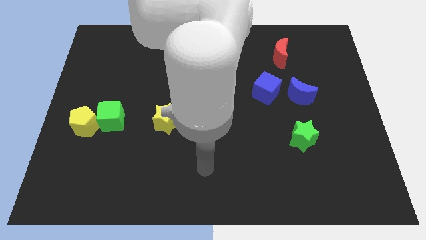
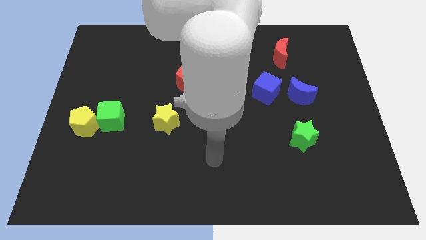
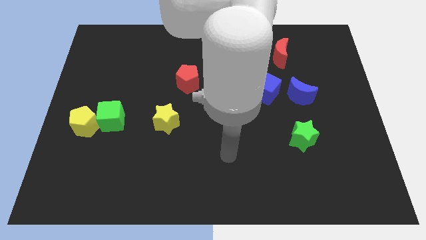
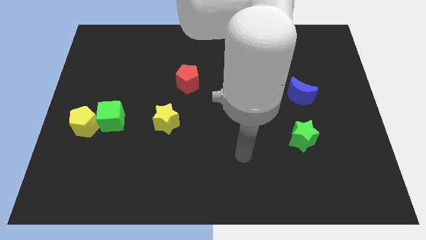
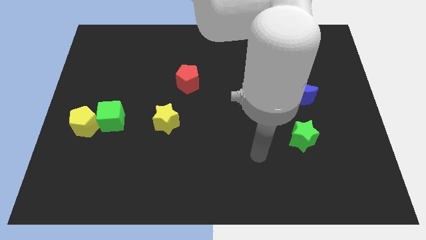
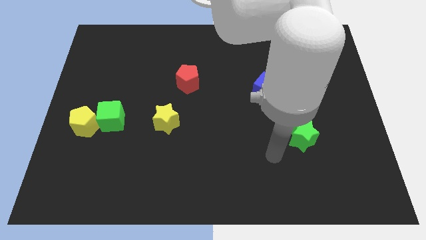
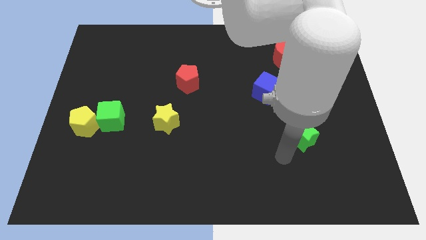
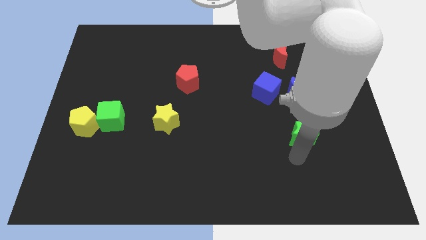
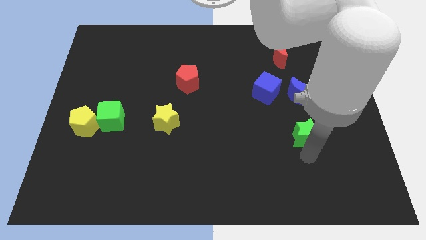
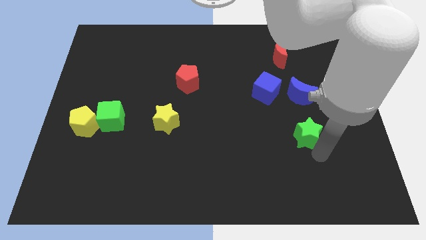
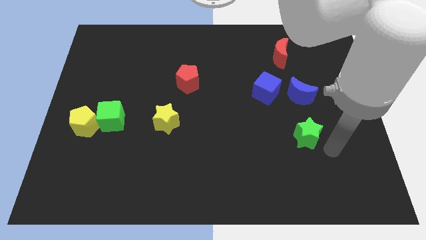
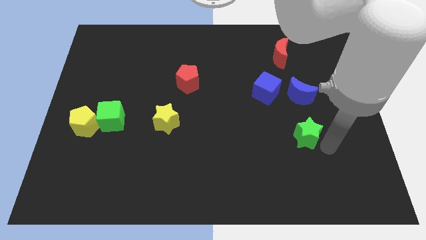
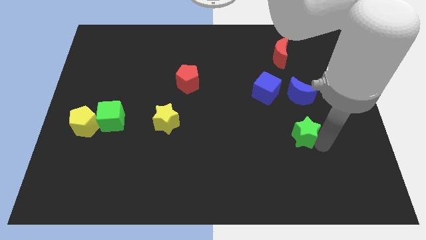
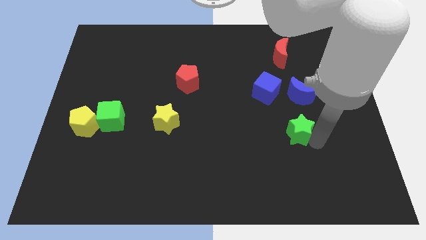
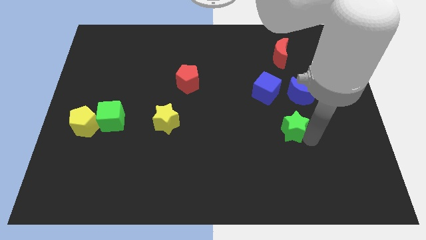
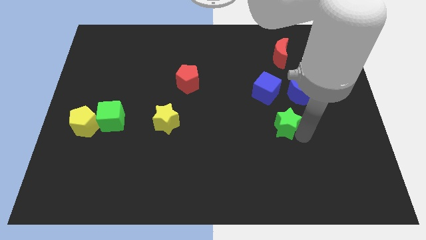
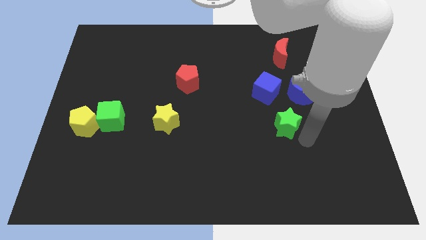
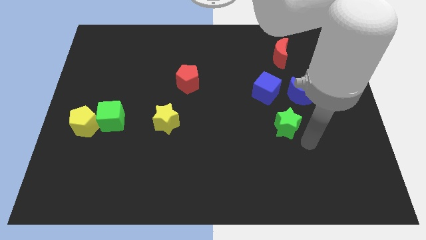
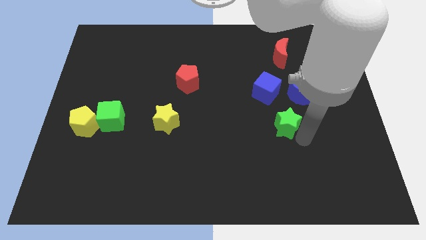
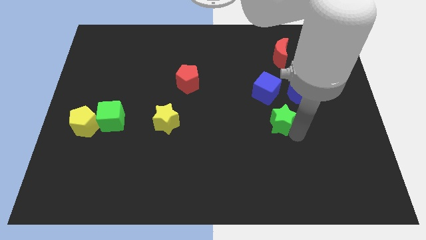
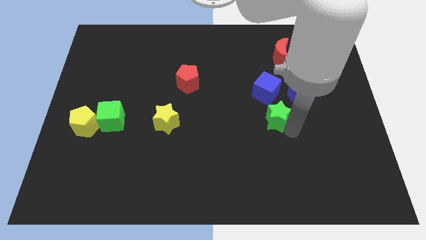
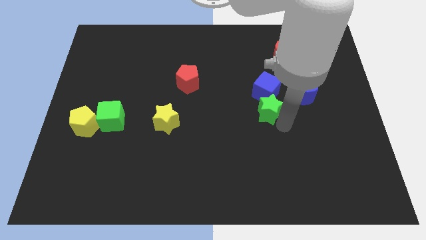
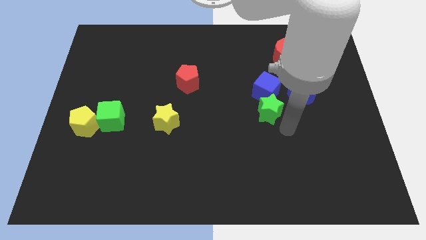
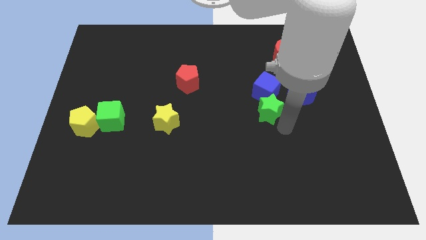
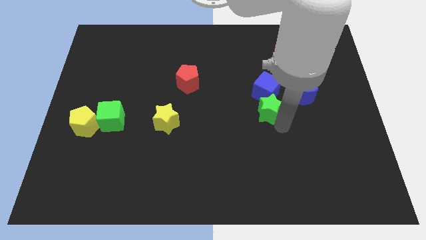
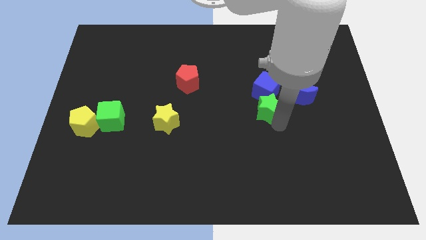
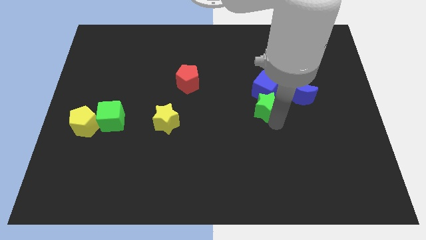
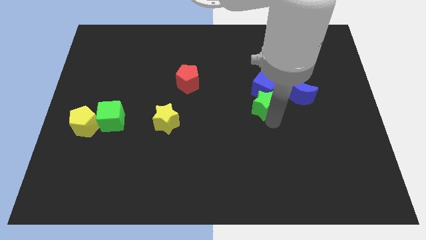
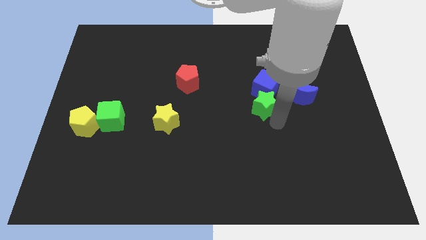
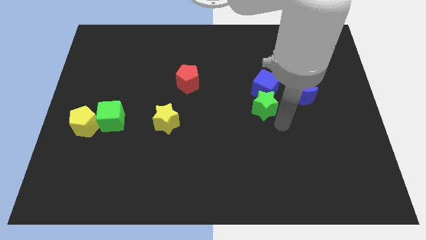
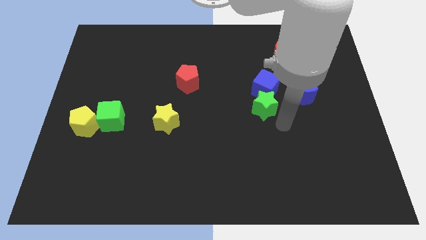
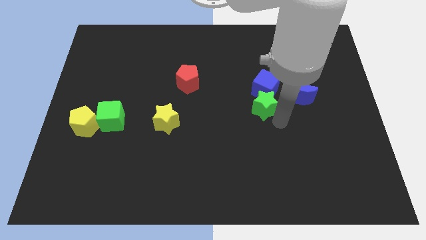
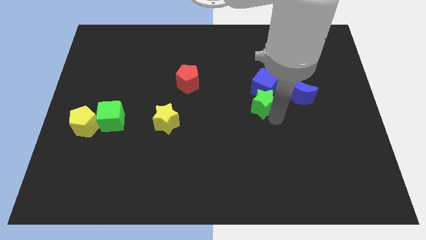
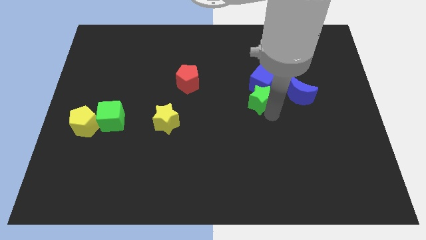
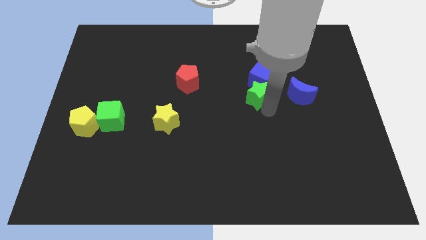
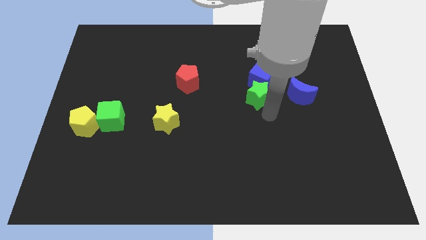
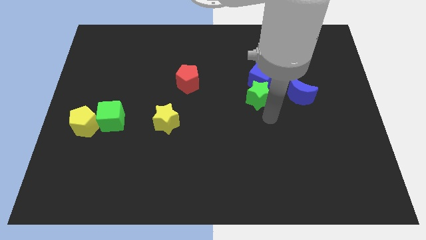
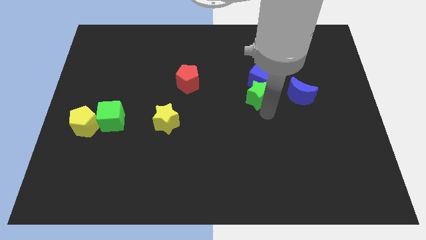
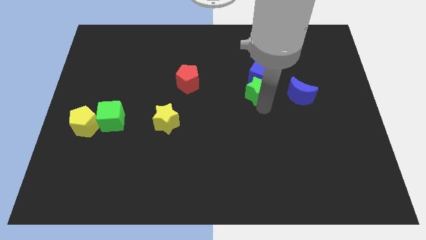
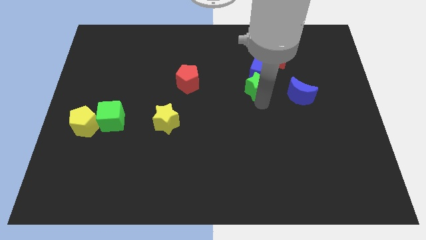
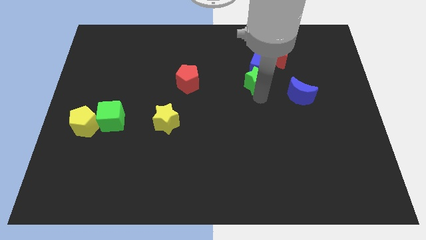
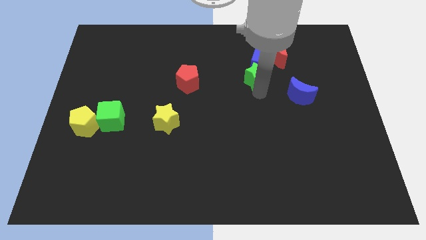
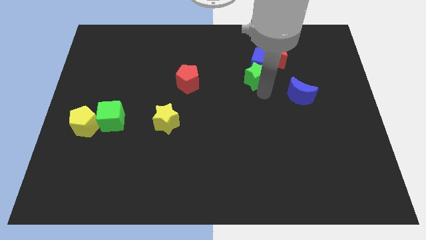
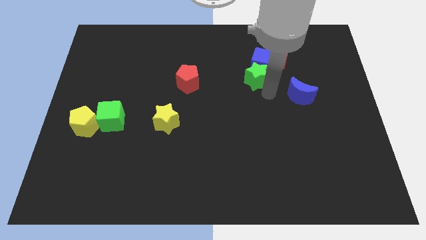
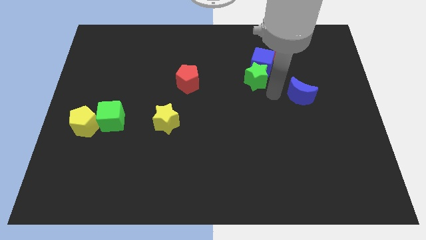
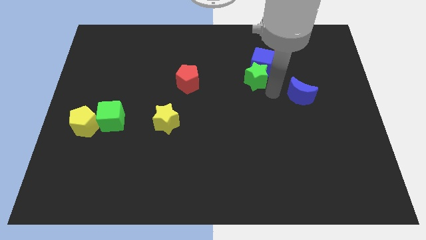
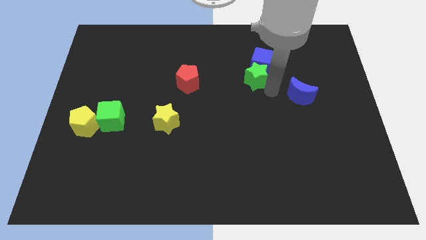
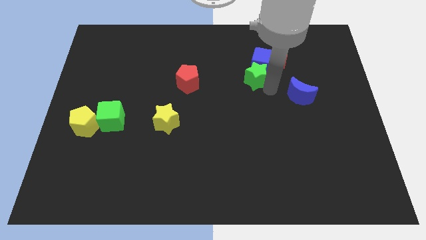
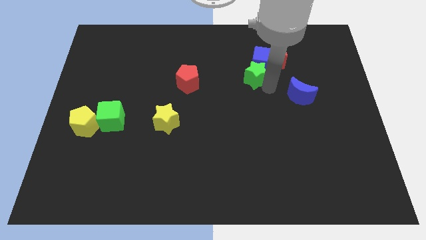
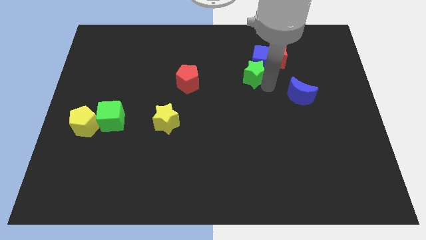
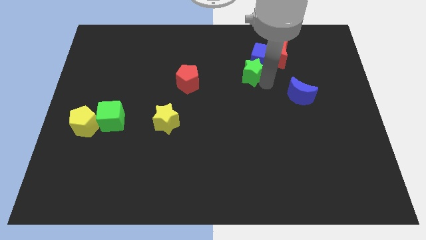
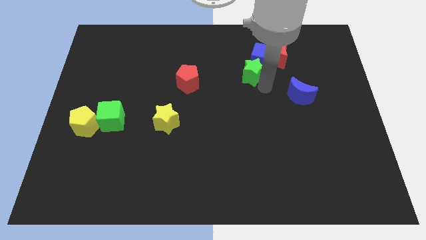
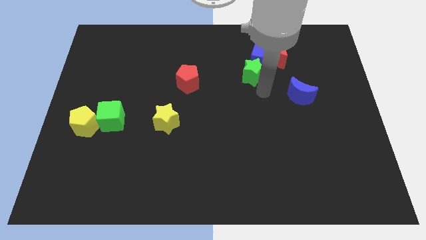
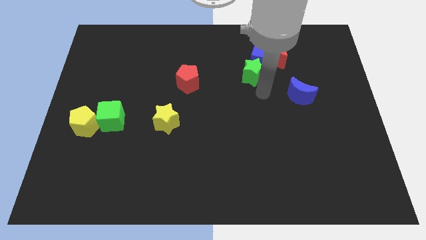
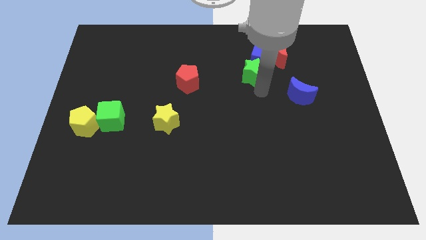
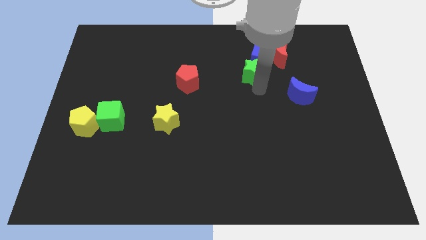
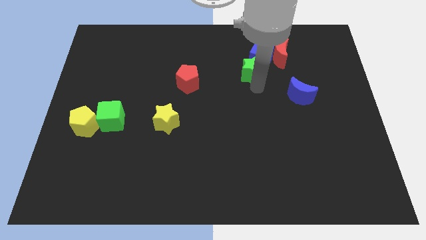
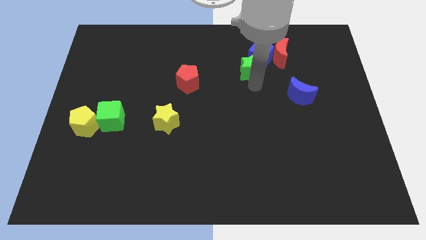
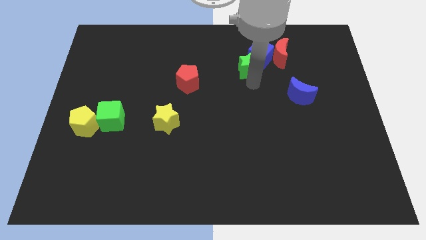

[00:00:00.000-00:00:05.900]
put the green star just left of the red moon

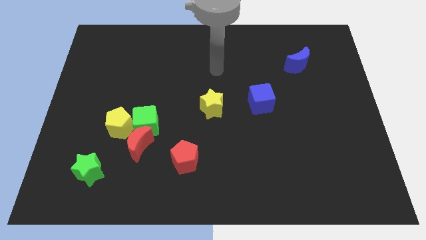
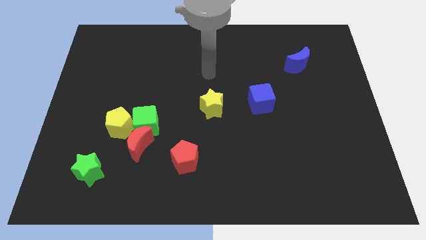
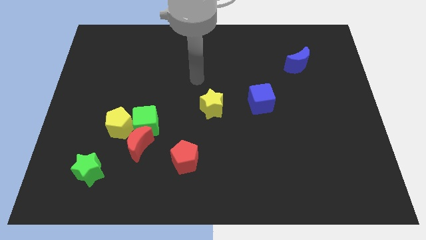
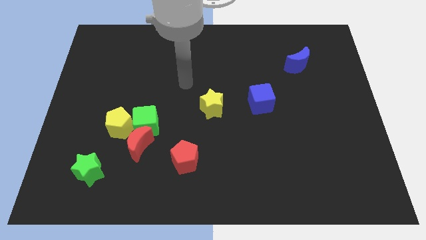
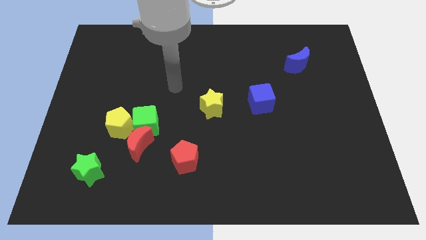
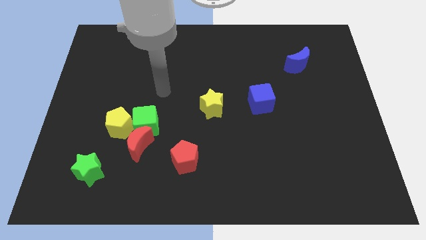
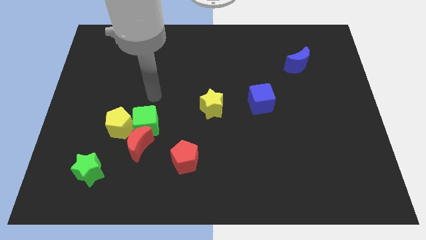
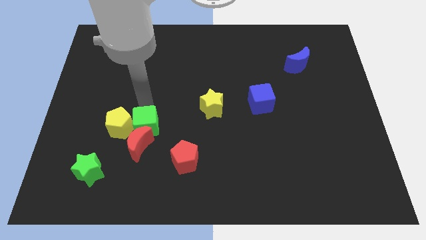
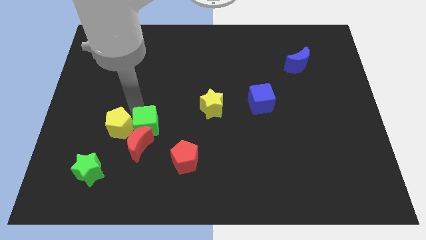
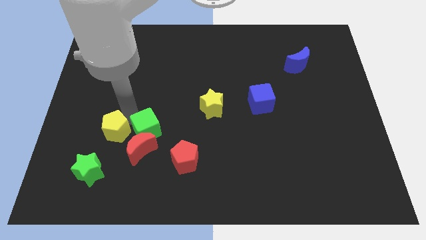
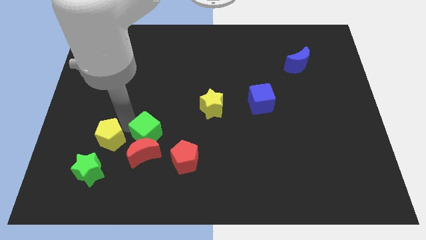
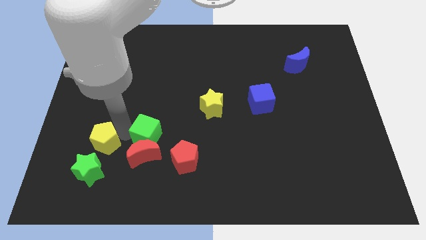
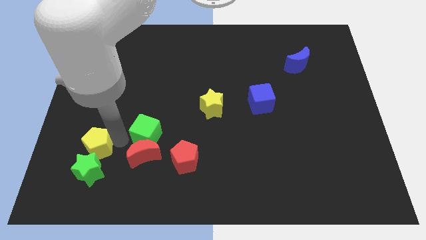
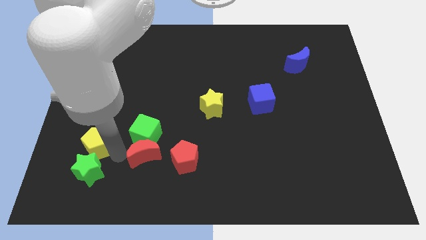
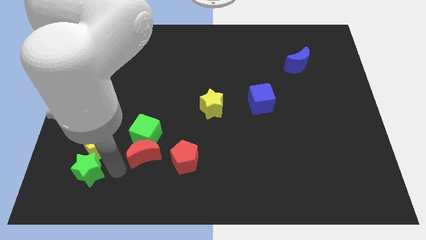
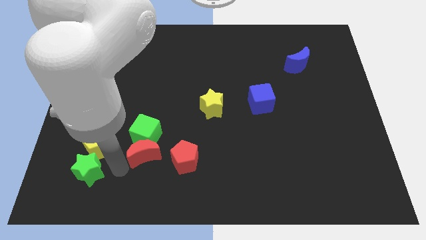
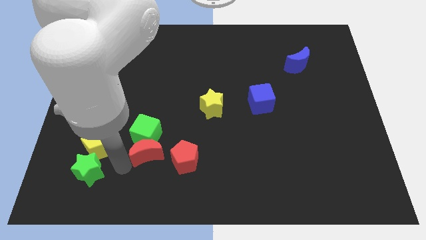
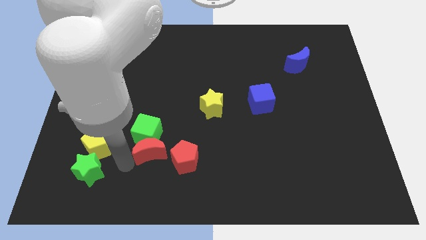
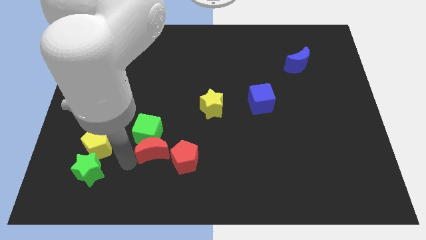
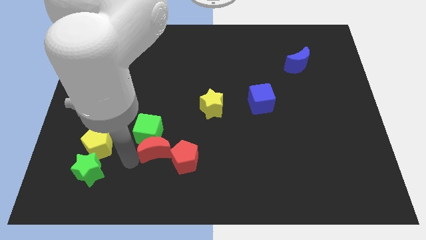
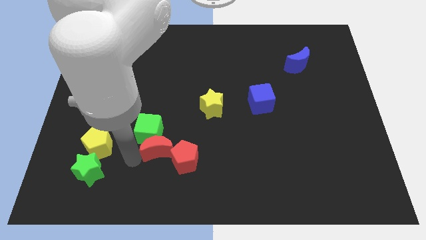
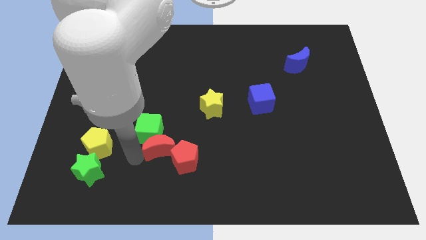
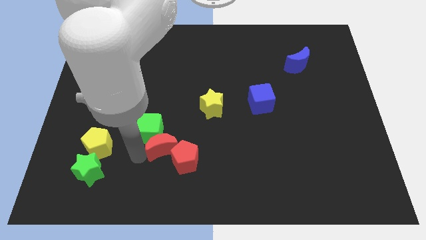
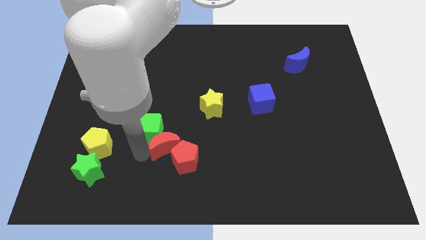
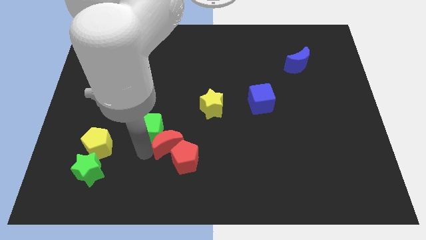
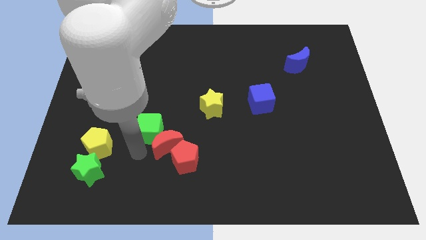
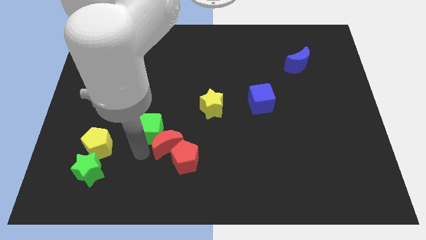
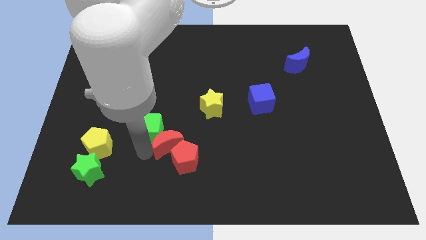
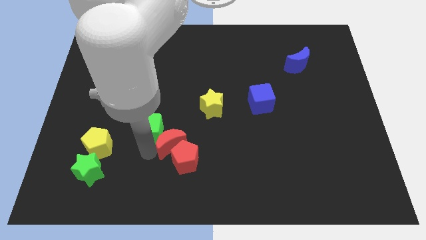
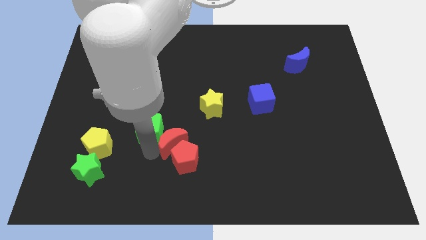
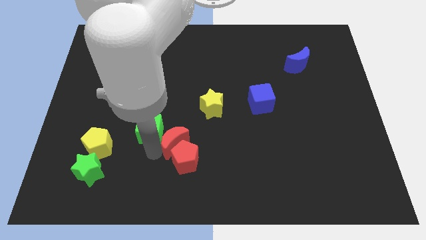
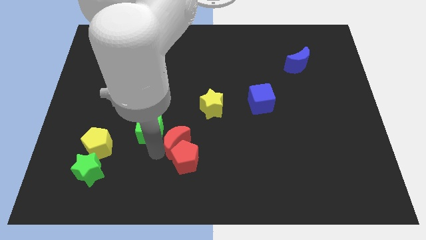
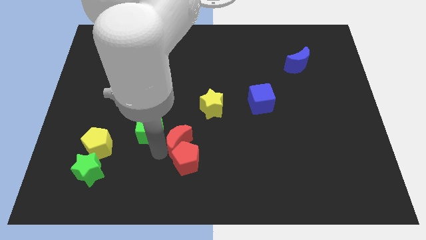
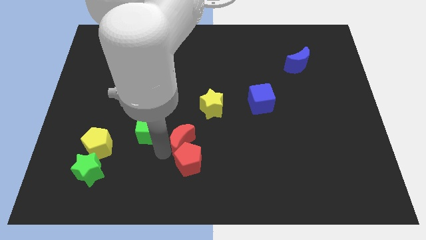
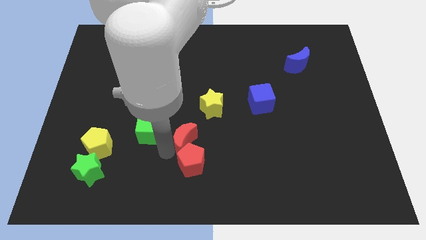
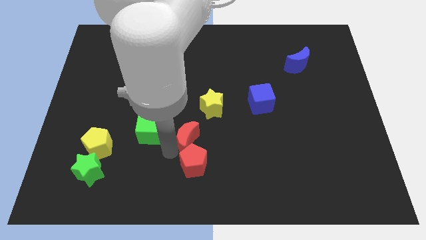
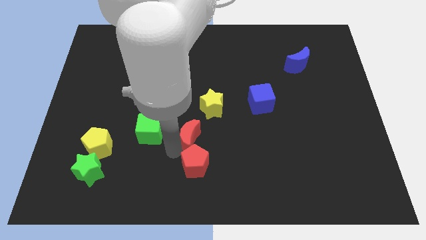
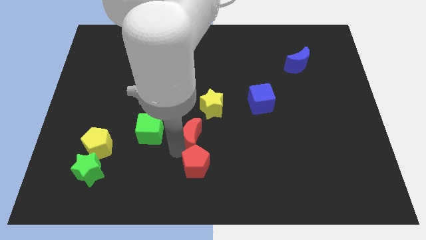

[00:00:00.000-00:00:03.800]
push the red moon to the bottom of the yellow star
